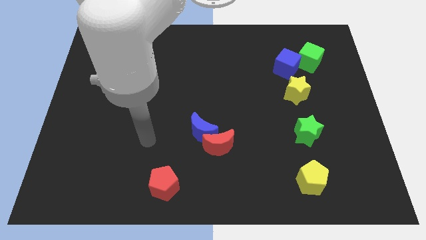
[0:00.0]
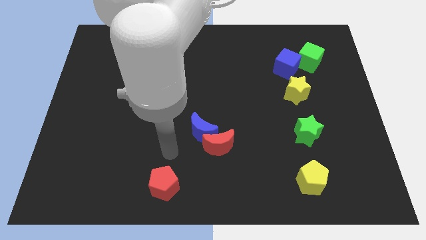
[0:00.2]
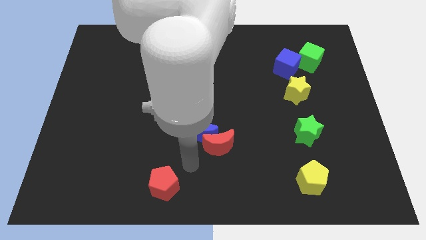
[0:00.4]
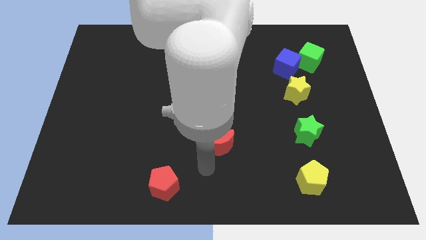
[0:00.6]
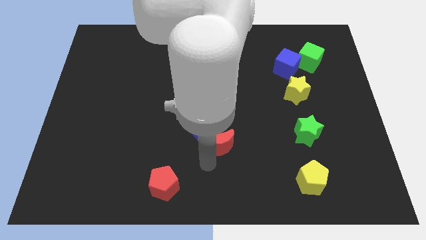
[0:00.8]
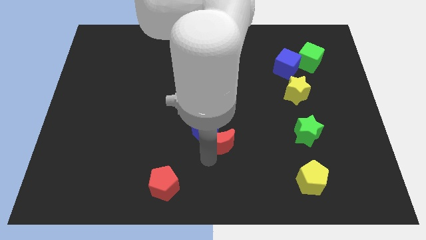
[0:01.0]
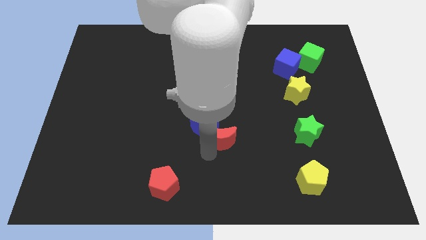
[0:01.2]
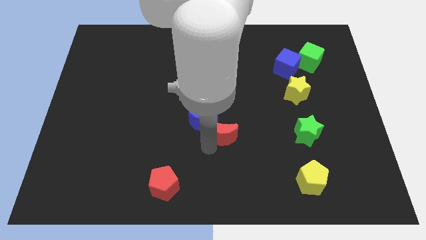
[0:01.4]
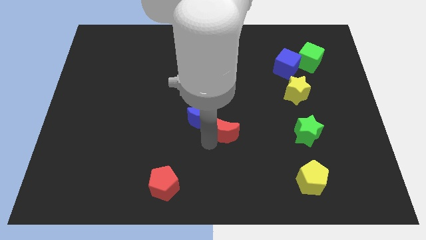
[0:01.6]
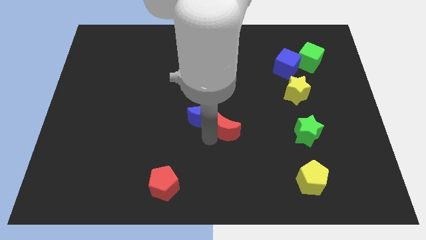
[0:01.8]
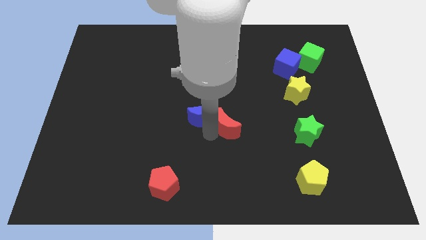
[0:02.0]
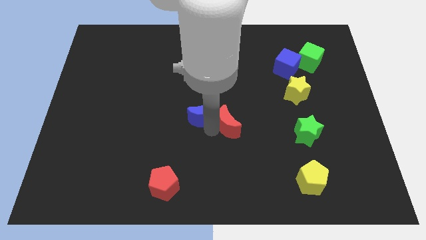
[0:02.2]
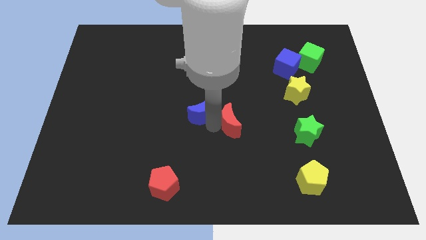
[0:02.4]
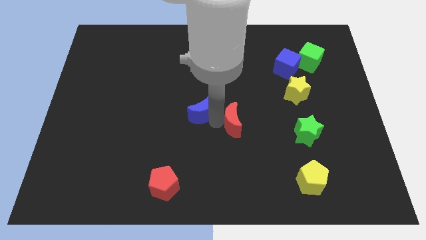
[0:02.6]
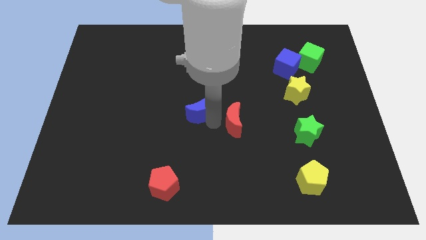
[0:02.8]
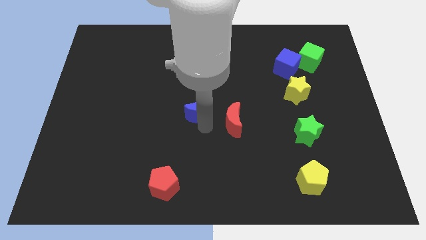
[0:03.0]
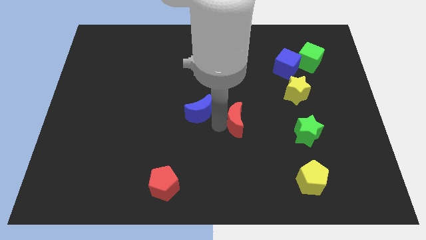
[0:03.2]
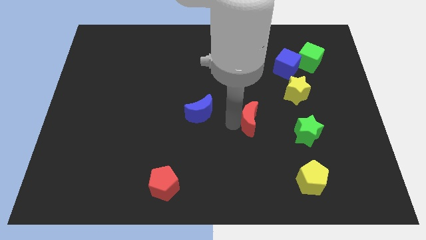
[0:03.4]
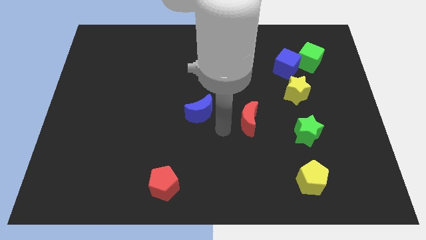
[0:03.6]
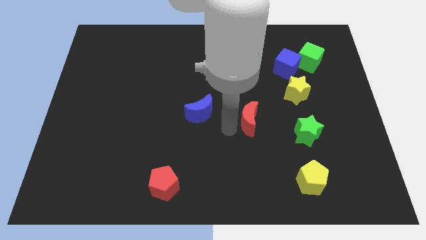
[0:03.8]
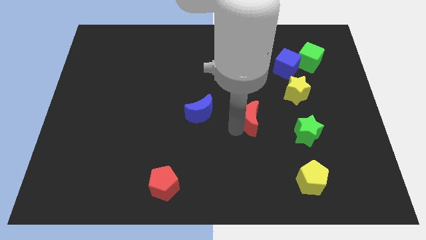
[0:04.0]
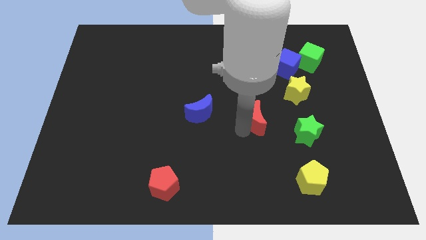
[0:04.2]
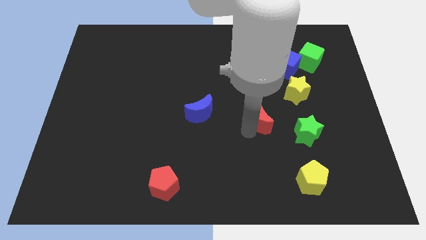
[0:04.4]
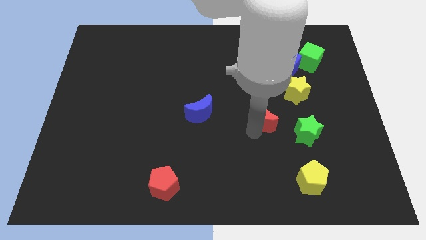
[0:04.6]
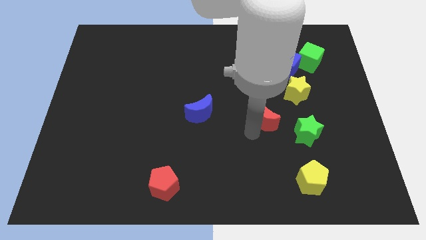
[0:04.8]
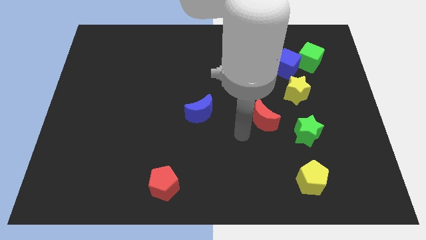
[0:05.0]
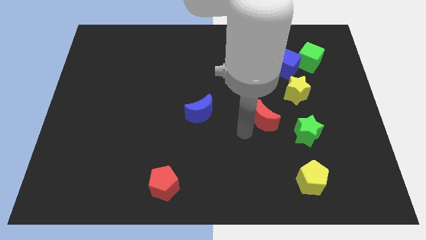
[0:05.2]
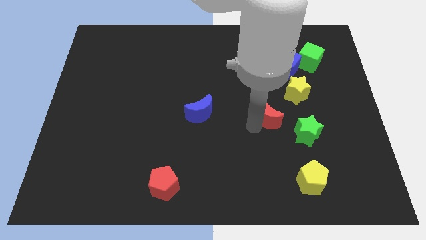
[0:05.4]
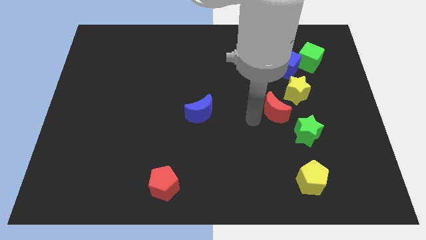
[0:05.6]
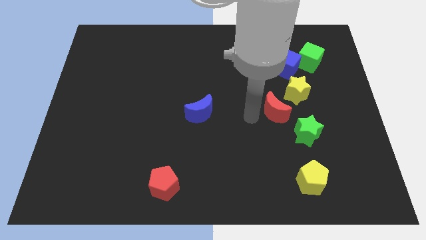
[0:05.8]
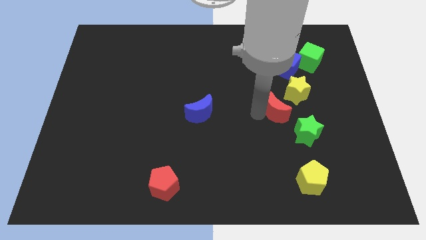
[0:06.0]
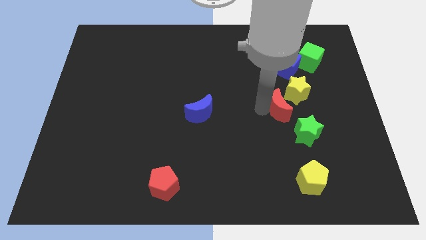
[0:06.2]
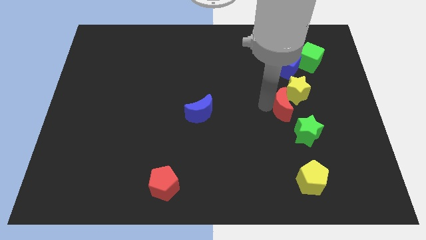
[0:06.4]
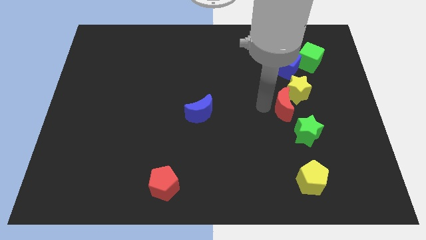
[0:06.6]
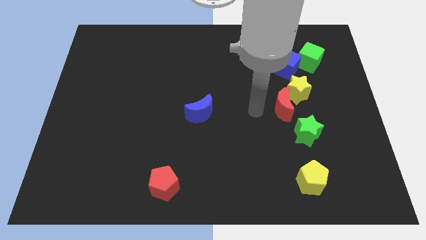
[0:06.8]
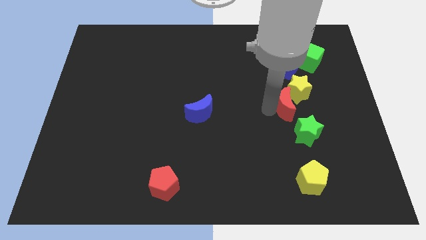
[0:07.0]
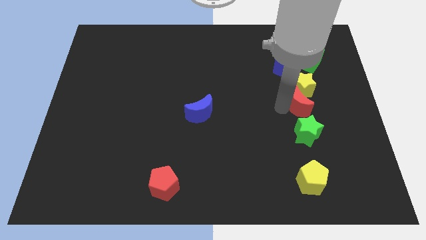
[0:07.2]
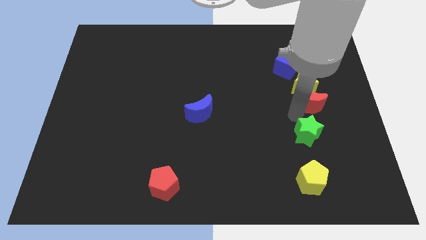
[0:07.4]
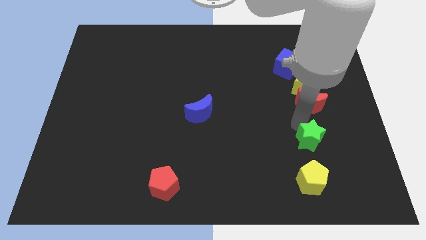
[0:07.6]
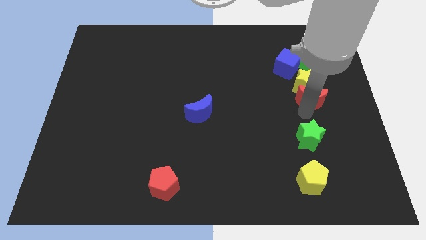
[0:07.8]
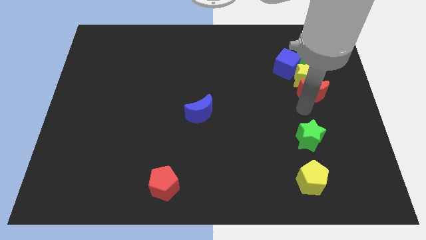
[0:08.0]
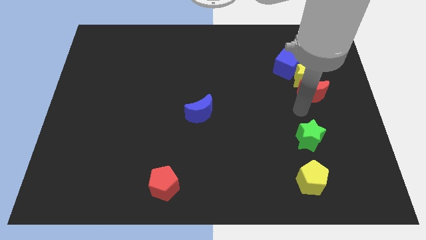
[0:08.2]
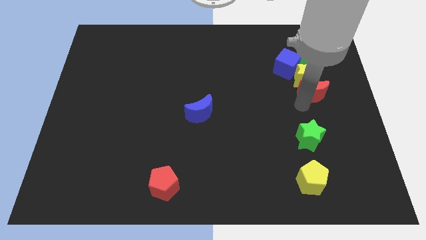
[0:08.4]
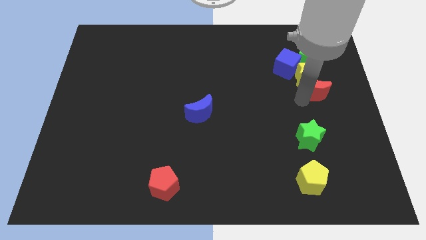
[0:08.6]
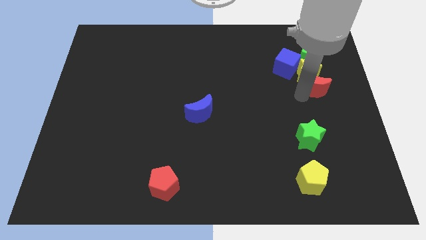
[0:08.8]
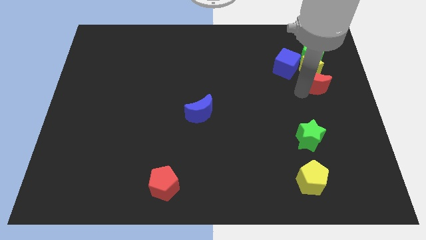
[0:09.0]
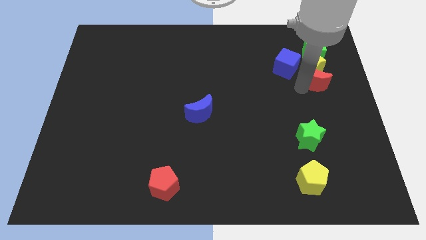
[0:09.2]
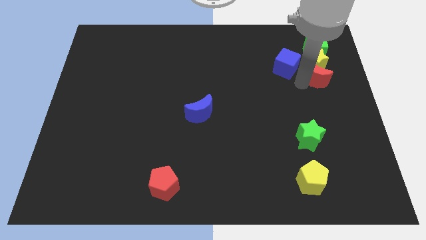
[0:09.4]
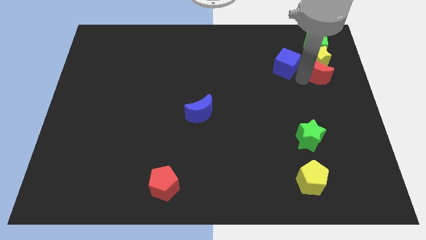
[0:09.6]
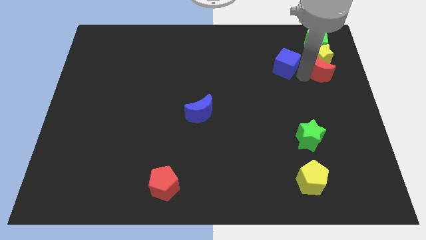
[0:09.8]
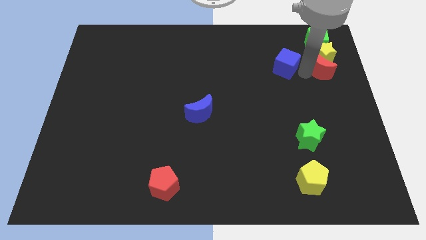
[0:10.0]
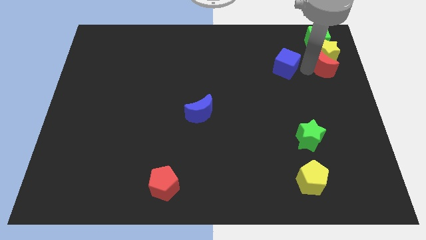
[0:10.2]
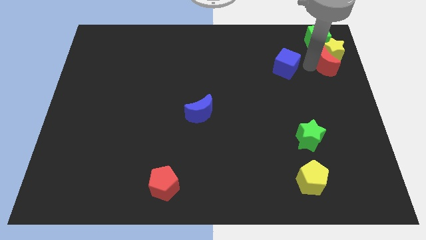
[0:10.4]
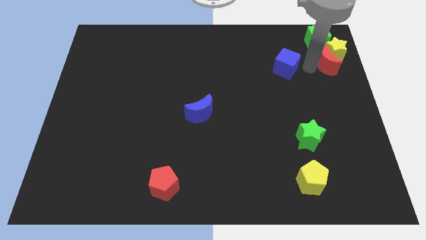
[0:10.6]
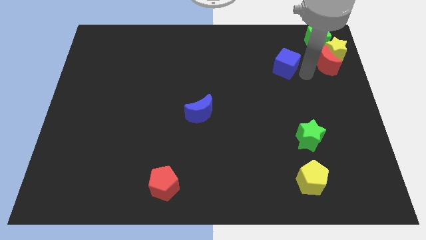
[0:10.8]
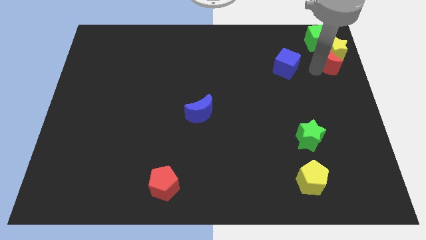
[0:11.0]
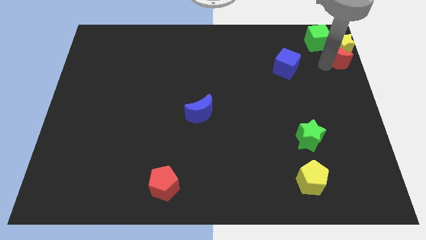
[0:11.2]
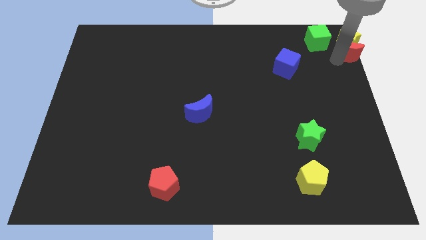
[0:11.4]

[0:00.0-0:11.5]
push the red moon to the top right corner

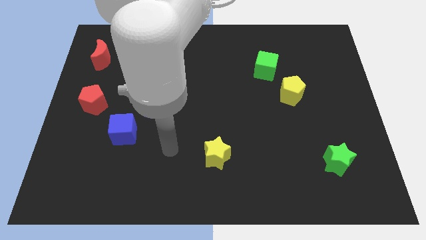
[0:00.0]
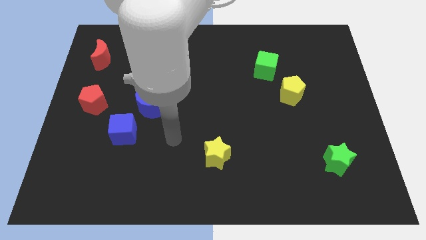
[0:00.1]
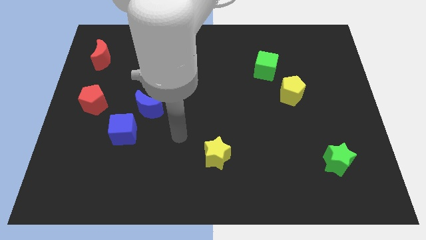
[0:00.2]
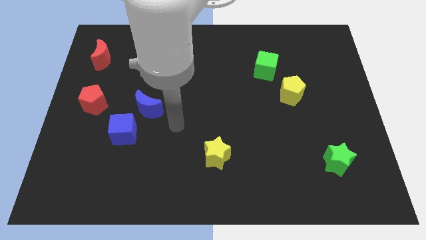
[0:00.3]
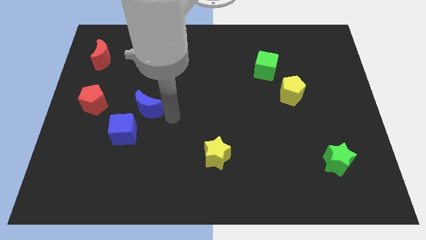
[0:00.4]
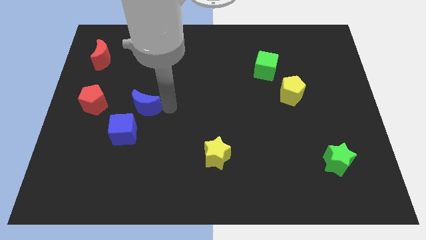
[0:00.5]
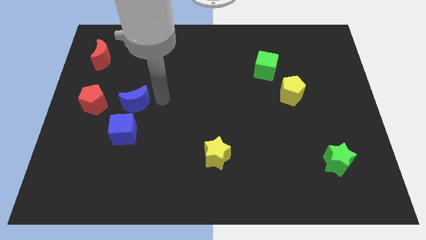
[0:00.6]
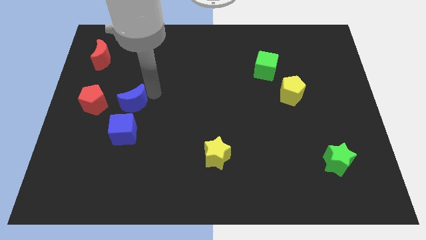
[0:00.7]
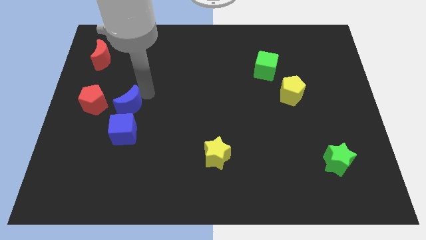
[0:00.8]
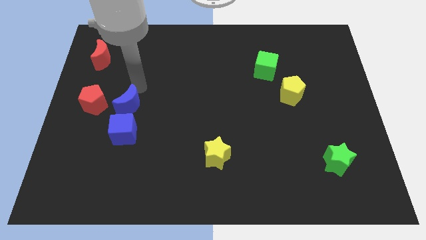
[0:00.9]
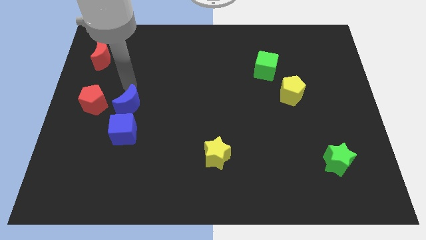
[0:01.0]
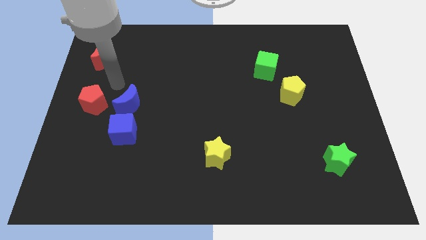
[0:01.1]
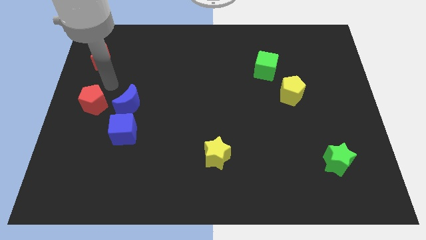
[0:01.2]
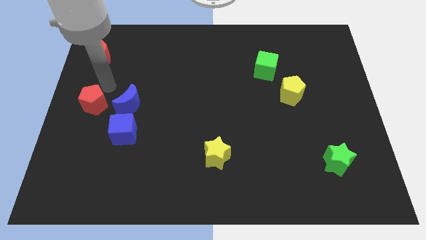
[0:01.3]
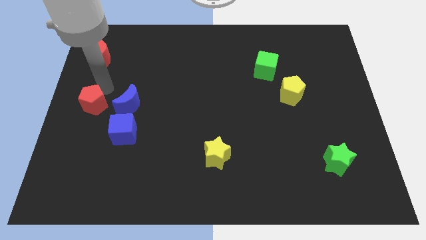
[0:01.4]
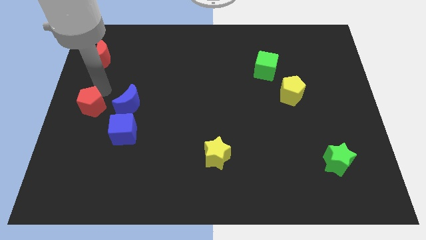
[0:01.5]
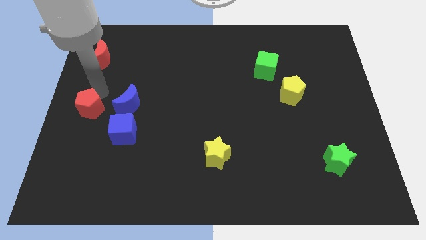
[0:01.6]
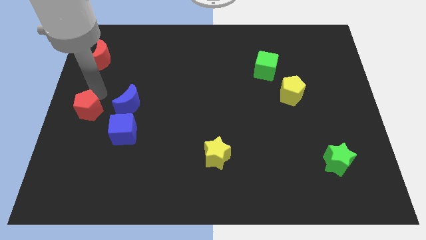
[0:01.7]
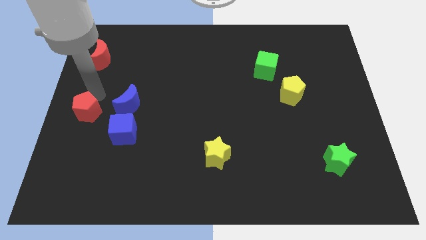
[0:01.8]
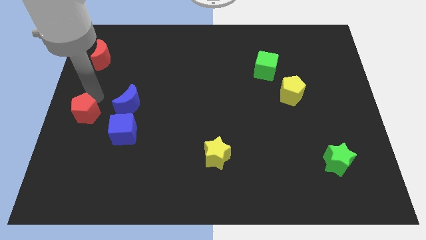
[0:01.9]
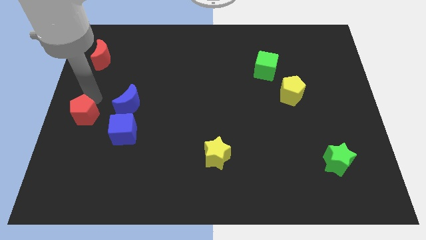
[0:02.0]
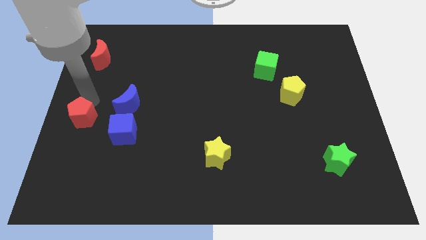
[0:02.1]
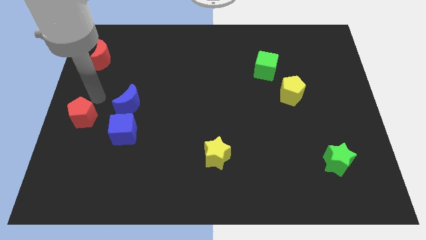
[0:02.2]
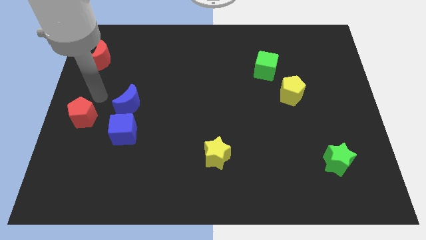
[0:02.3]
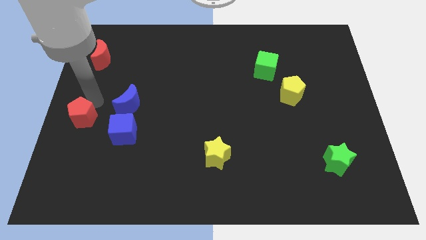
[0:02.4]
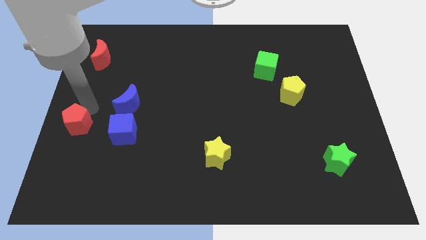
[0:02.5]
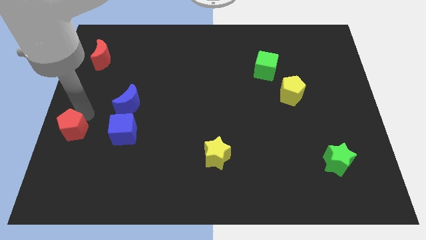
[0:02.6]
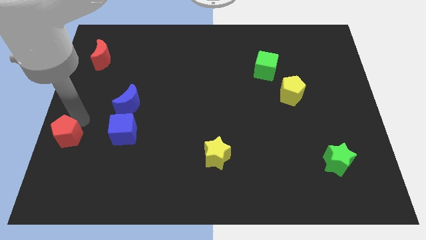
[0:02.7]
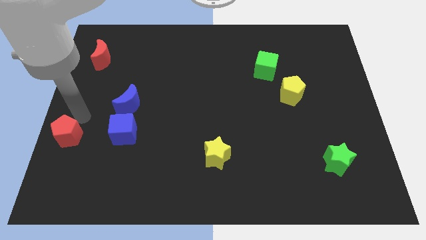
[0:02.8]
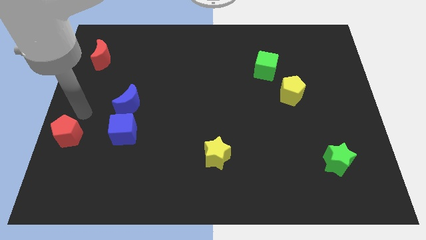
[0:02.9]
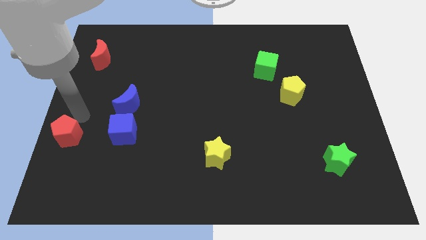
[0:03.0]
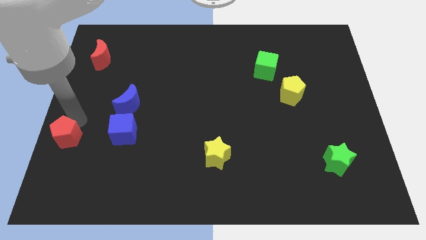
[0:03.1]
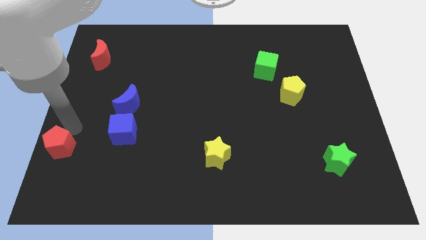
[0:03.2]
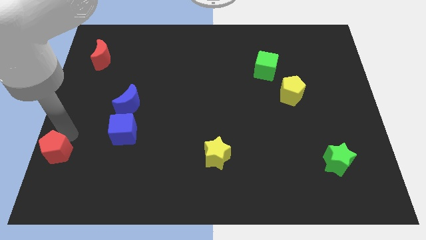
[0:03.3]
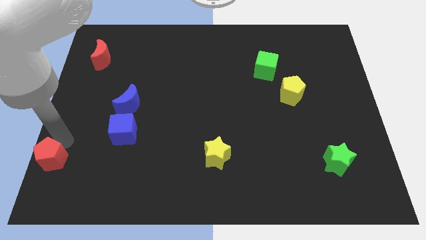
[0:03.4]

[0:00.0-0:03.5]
put the red pentagon to the bottom left of the board
